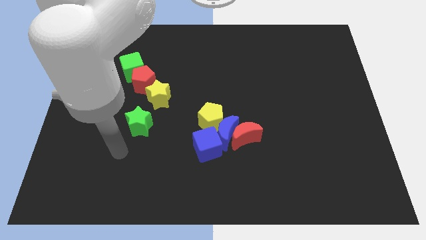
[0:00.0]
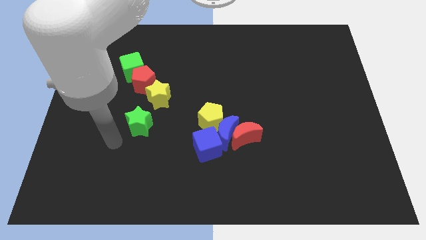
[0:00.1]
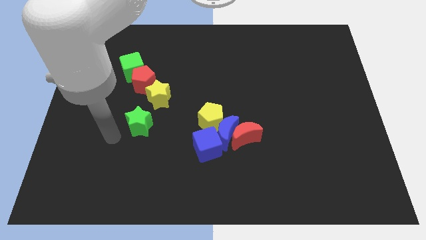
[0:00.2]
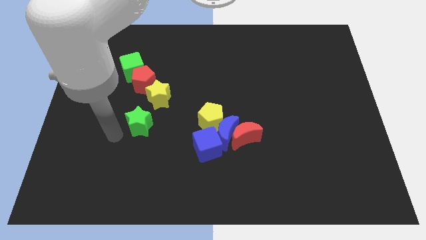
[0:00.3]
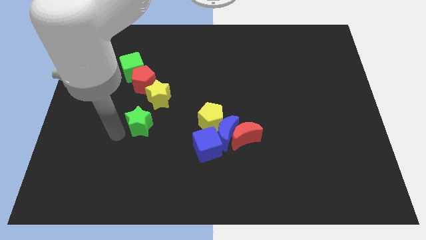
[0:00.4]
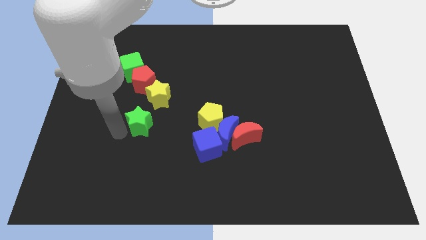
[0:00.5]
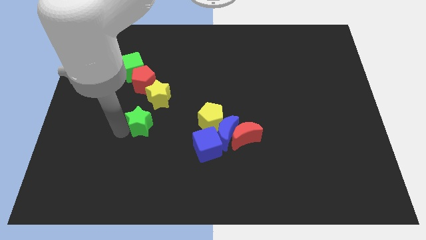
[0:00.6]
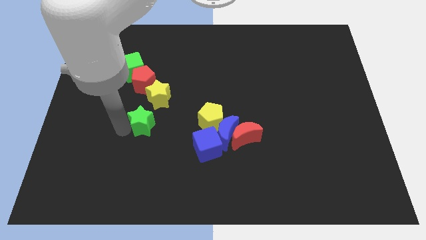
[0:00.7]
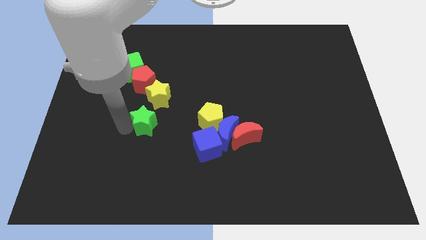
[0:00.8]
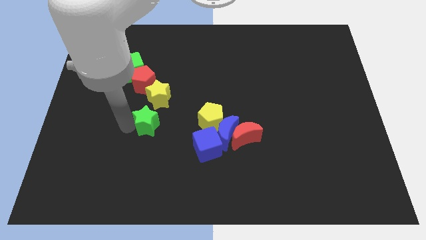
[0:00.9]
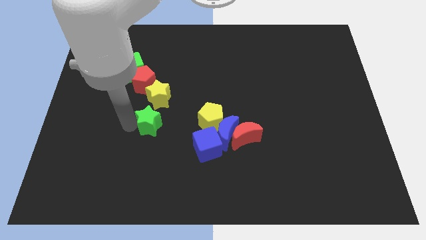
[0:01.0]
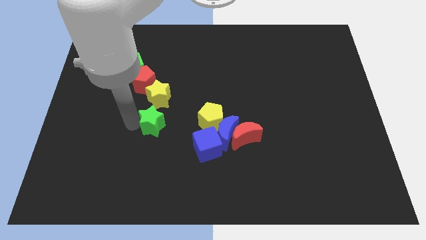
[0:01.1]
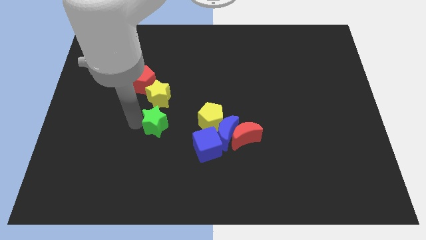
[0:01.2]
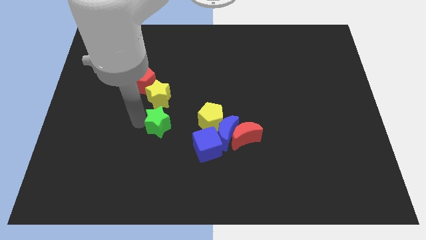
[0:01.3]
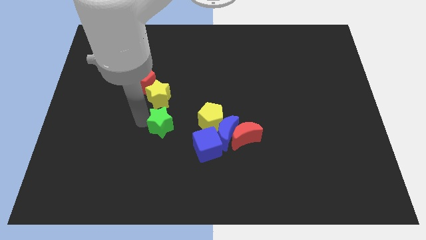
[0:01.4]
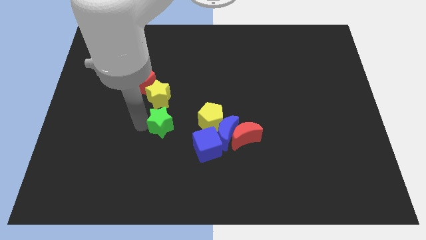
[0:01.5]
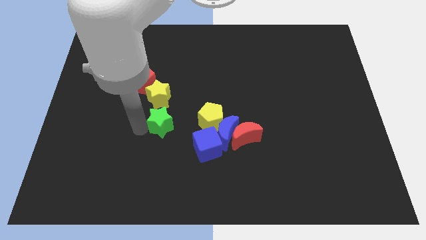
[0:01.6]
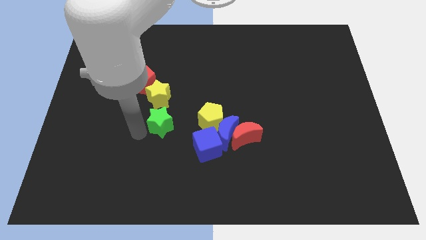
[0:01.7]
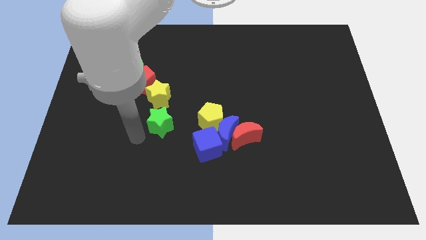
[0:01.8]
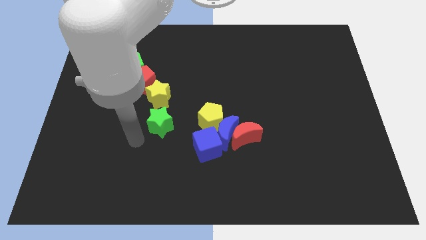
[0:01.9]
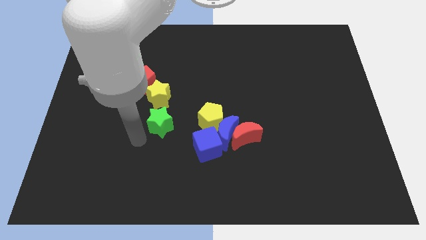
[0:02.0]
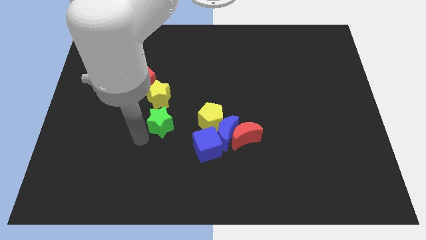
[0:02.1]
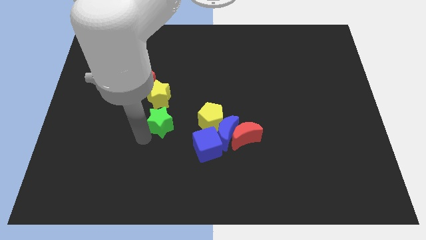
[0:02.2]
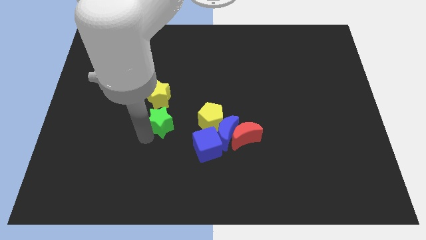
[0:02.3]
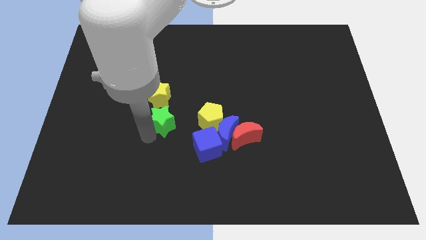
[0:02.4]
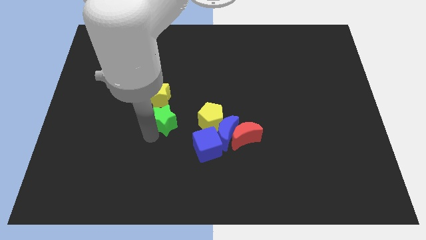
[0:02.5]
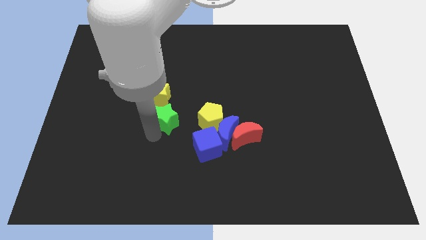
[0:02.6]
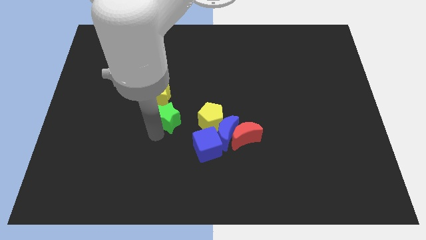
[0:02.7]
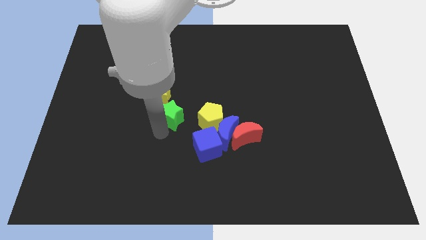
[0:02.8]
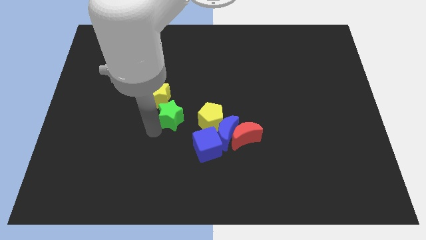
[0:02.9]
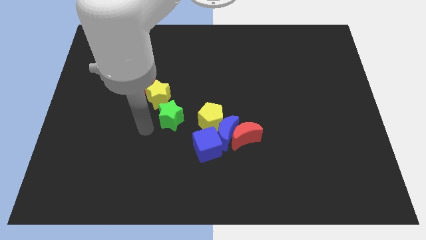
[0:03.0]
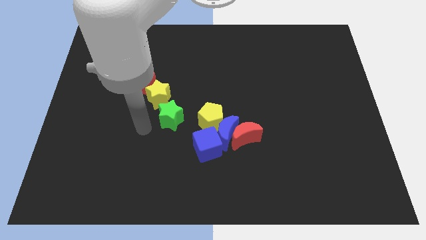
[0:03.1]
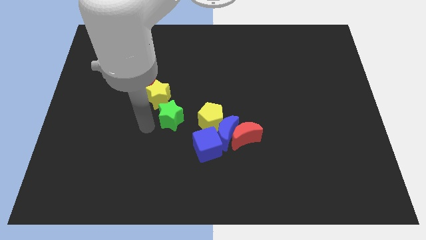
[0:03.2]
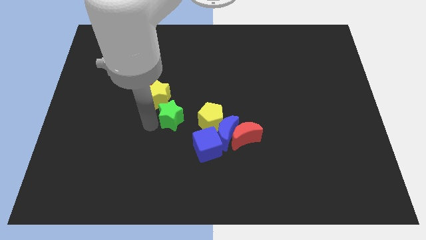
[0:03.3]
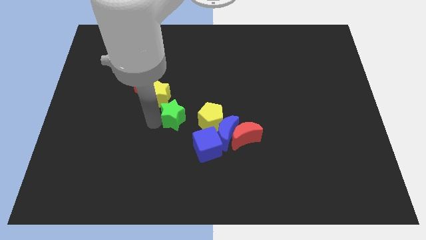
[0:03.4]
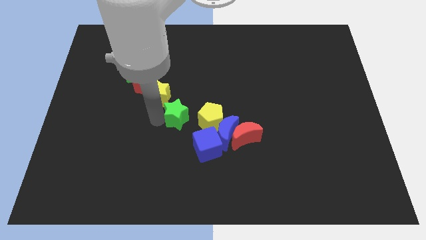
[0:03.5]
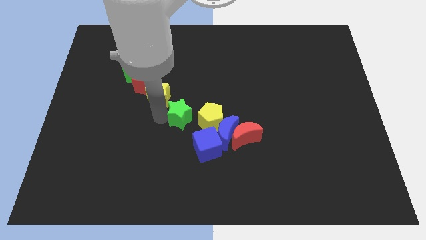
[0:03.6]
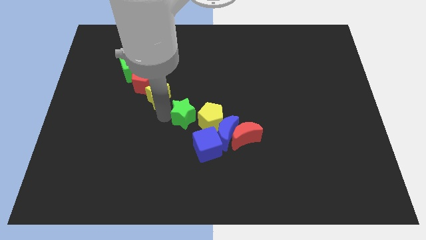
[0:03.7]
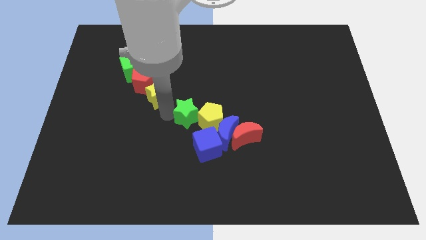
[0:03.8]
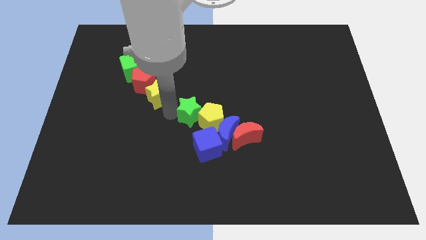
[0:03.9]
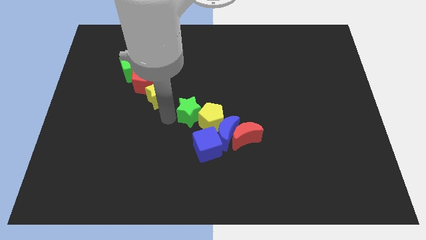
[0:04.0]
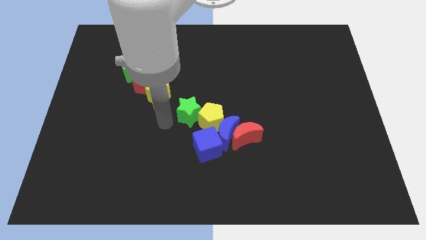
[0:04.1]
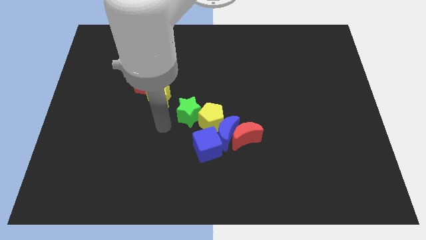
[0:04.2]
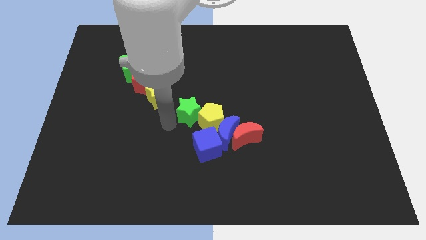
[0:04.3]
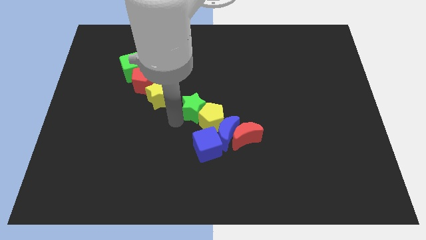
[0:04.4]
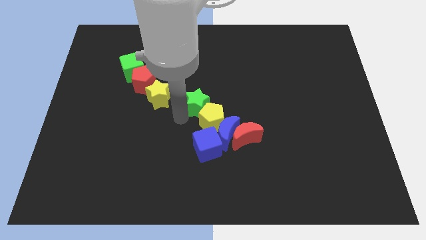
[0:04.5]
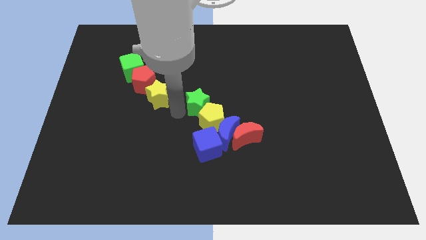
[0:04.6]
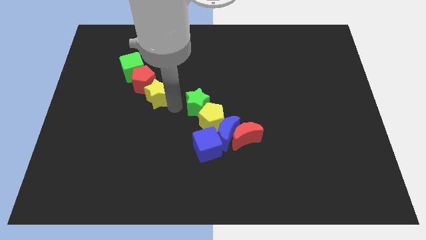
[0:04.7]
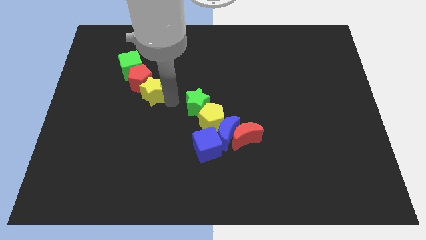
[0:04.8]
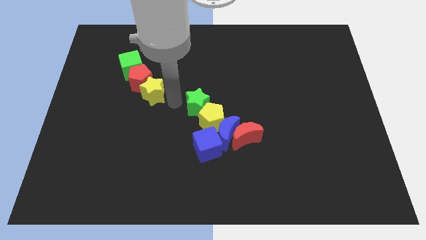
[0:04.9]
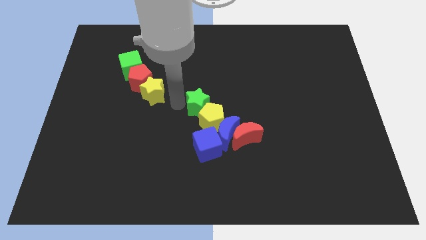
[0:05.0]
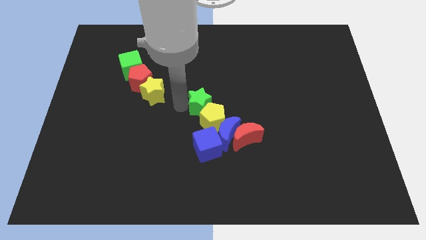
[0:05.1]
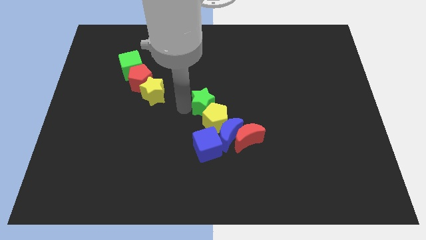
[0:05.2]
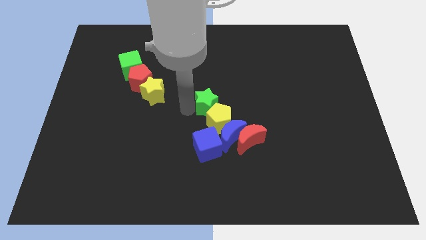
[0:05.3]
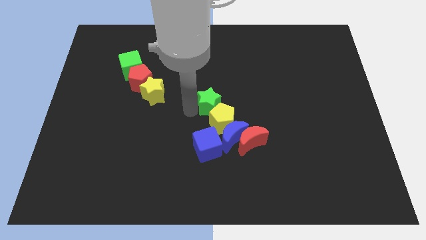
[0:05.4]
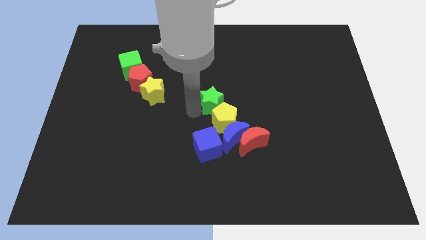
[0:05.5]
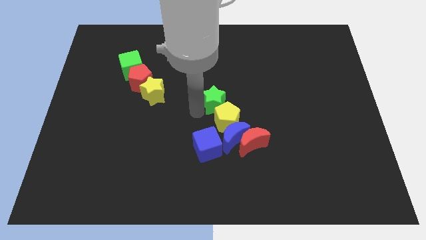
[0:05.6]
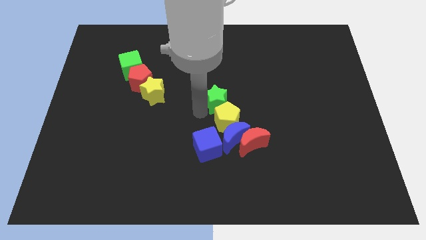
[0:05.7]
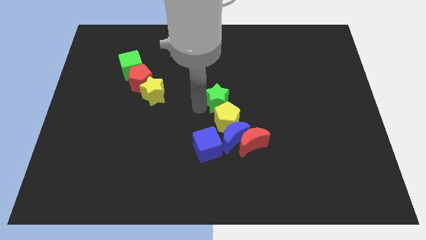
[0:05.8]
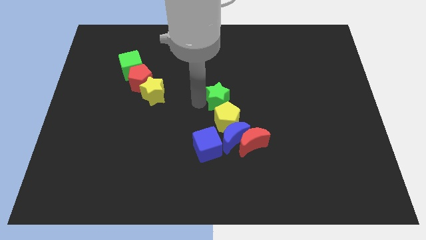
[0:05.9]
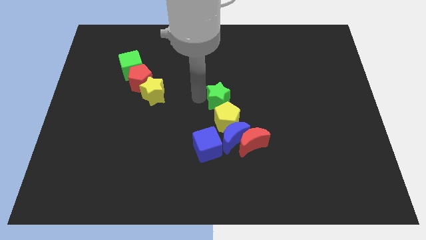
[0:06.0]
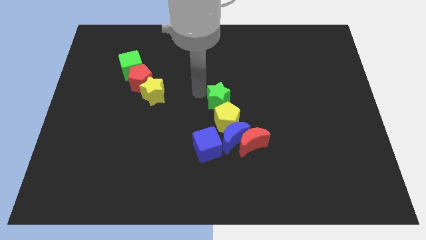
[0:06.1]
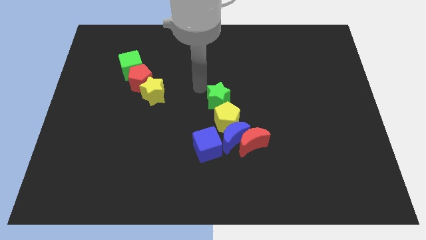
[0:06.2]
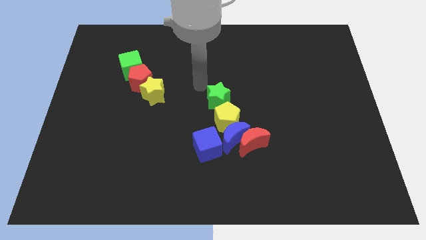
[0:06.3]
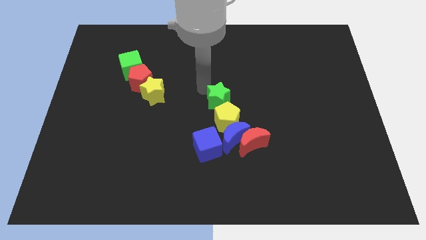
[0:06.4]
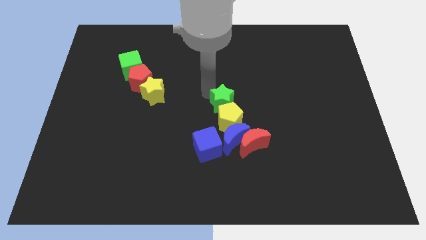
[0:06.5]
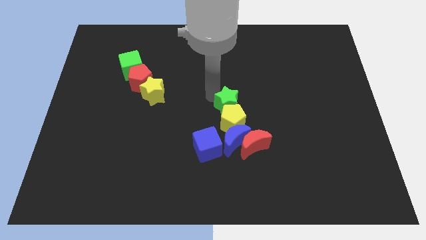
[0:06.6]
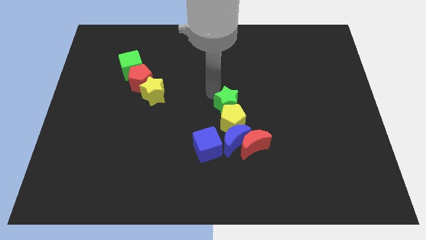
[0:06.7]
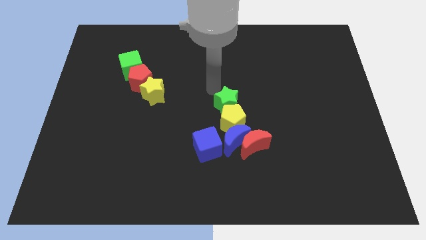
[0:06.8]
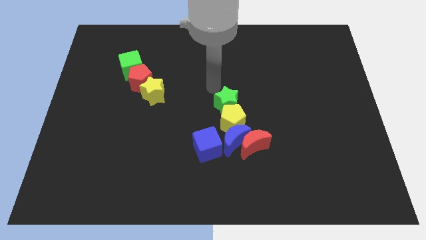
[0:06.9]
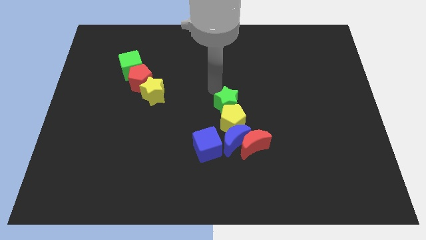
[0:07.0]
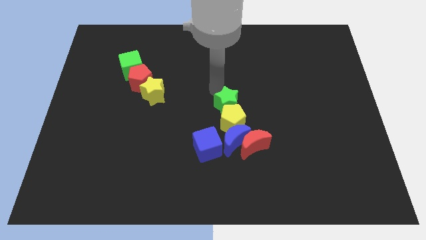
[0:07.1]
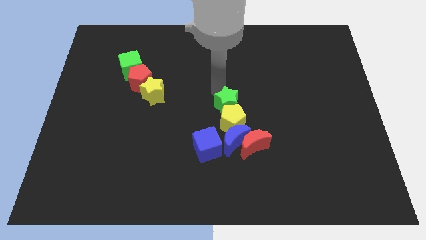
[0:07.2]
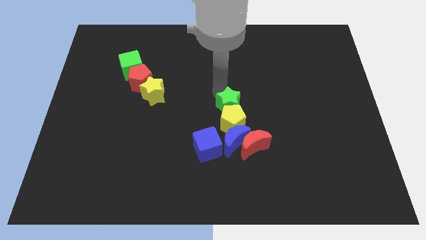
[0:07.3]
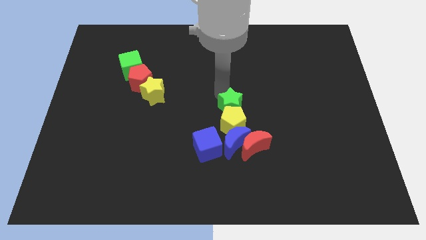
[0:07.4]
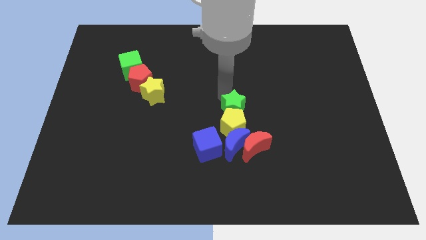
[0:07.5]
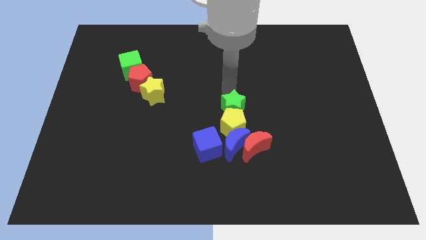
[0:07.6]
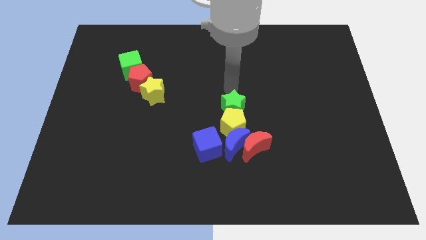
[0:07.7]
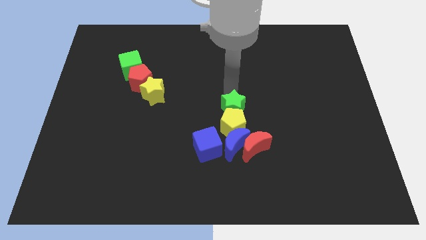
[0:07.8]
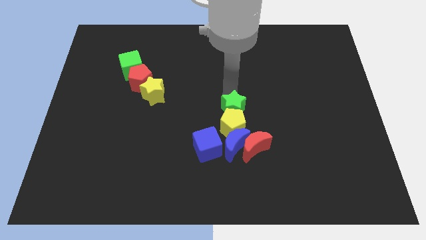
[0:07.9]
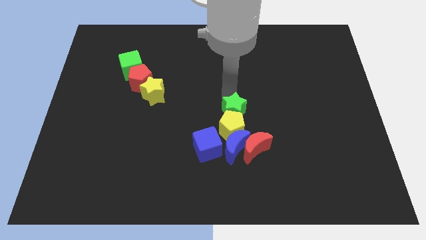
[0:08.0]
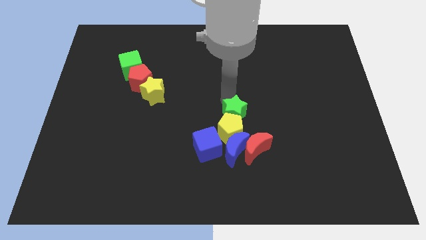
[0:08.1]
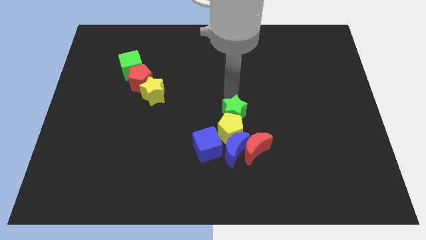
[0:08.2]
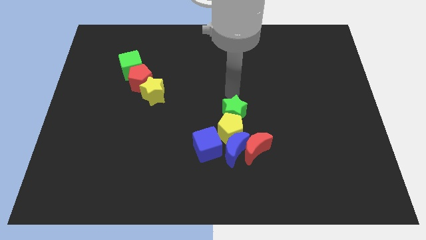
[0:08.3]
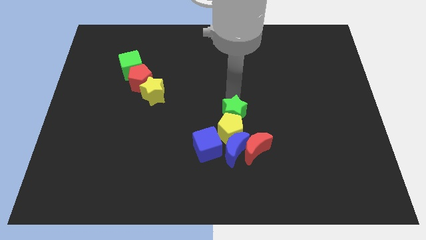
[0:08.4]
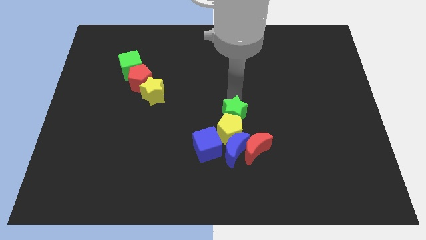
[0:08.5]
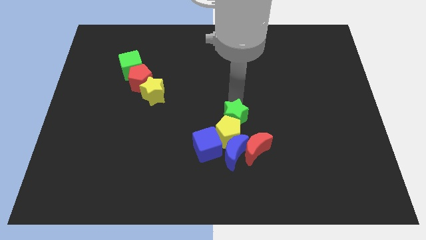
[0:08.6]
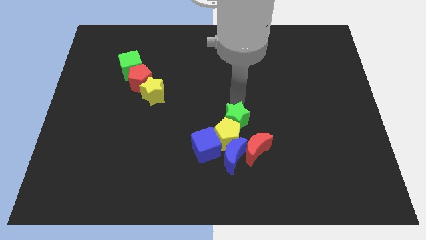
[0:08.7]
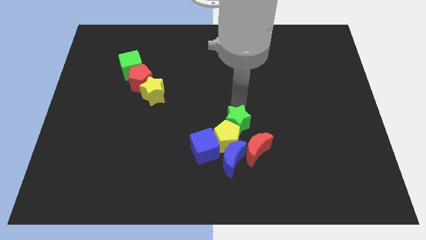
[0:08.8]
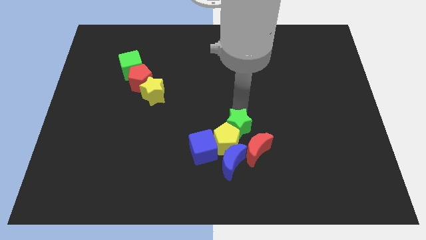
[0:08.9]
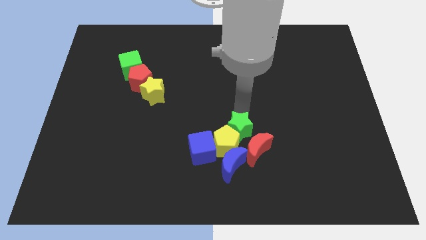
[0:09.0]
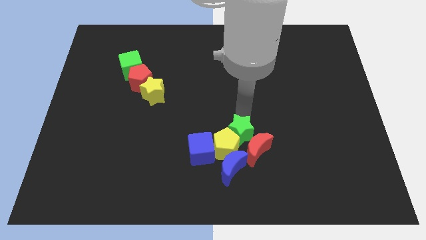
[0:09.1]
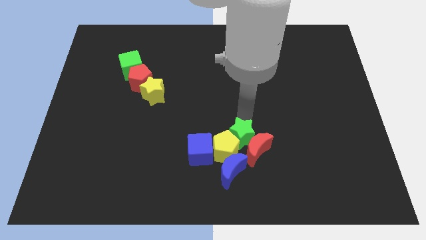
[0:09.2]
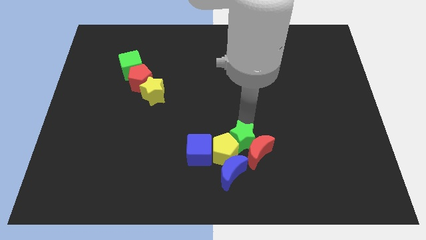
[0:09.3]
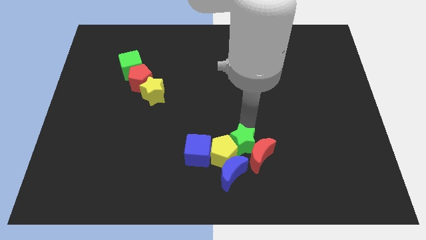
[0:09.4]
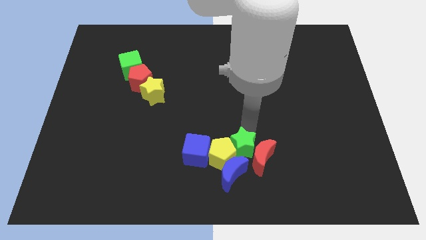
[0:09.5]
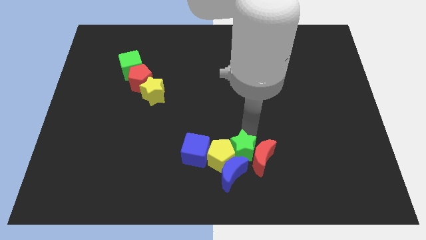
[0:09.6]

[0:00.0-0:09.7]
move the green star close to the blue moon
